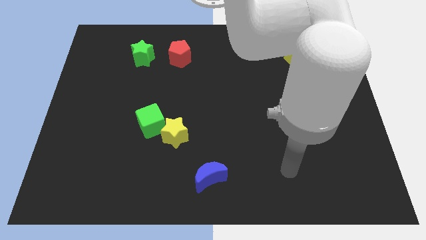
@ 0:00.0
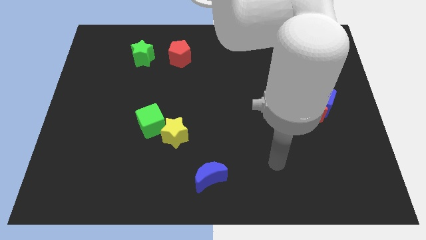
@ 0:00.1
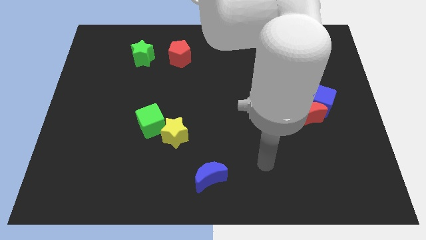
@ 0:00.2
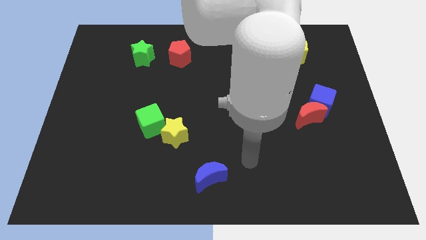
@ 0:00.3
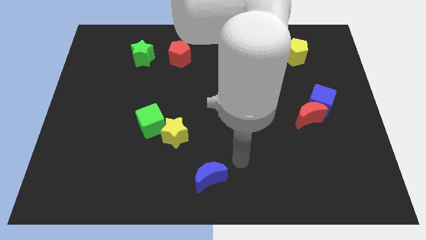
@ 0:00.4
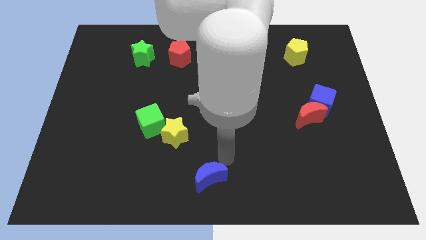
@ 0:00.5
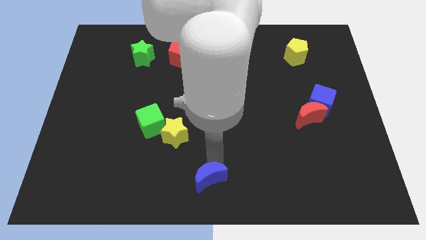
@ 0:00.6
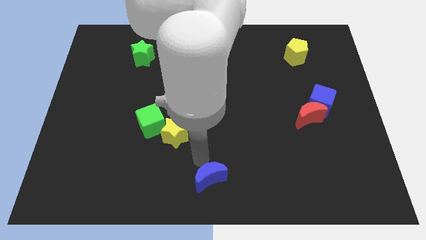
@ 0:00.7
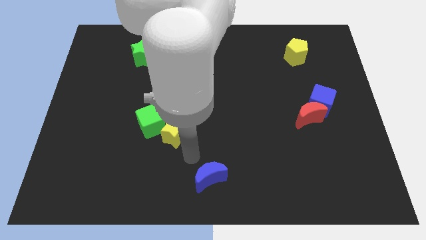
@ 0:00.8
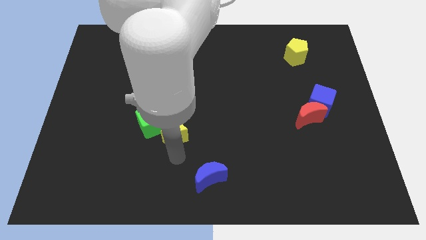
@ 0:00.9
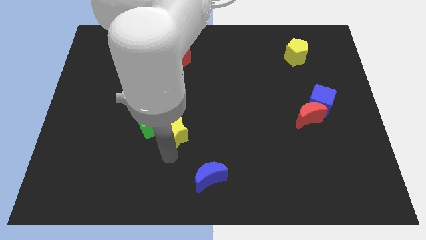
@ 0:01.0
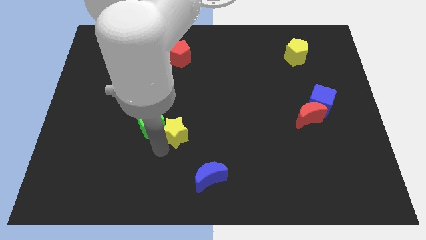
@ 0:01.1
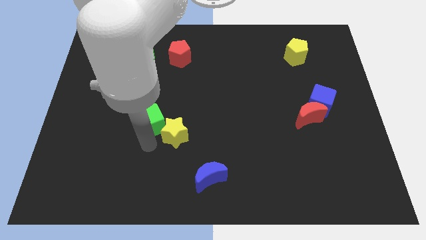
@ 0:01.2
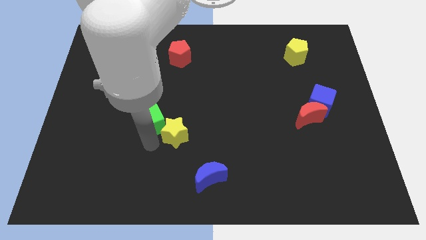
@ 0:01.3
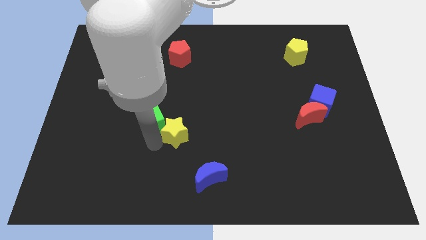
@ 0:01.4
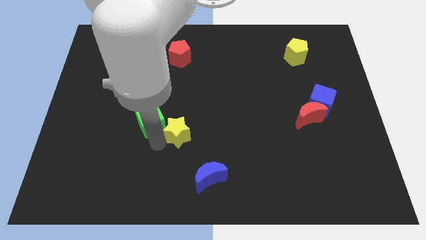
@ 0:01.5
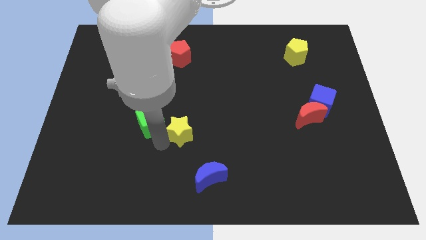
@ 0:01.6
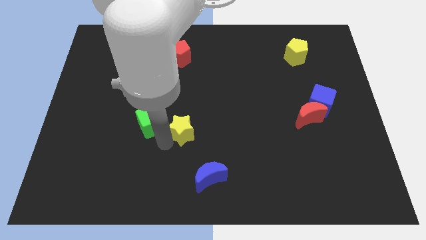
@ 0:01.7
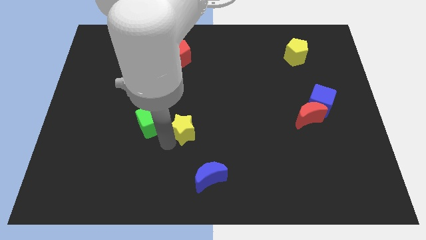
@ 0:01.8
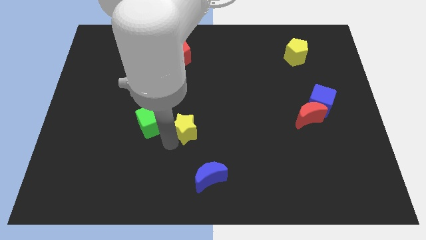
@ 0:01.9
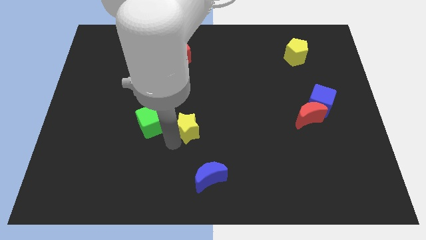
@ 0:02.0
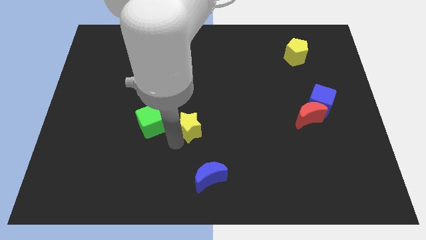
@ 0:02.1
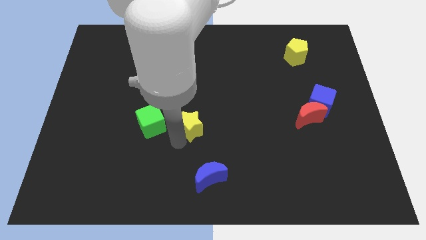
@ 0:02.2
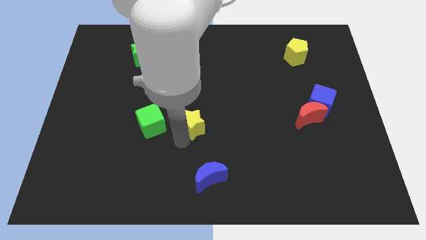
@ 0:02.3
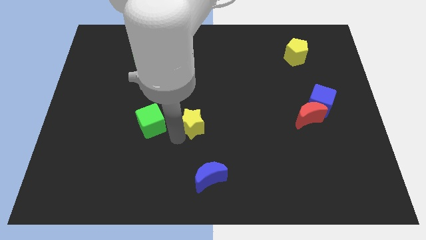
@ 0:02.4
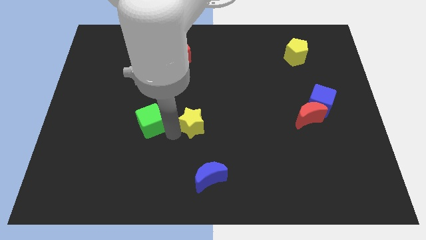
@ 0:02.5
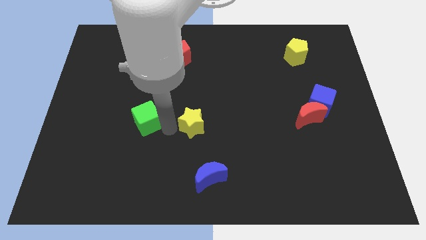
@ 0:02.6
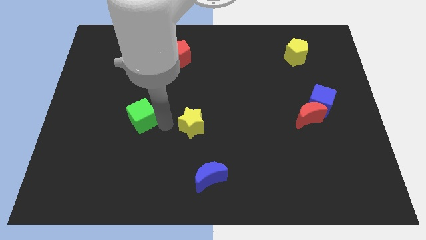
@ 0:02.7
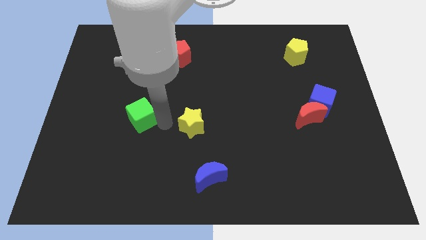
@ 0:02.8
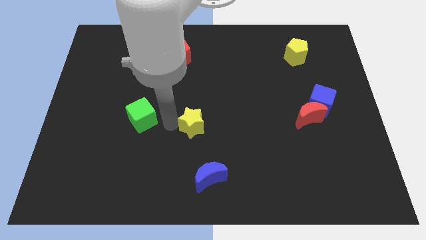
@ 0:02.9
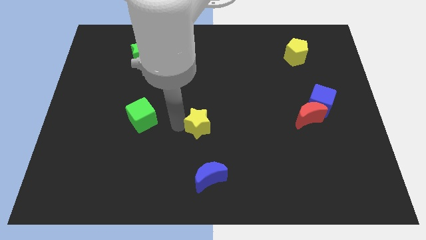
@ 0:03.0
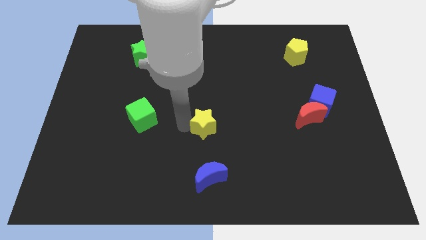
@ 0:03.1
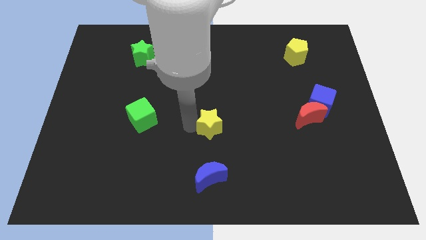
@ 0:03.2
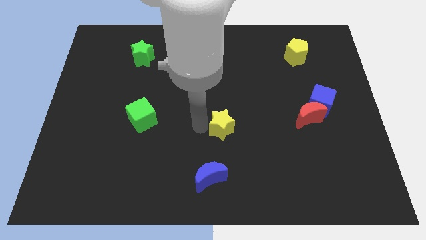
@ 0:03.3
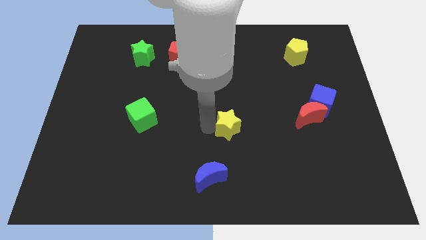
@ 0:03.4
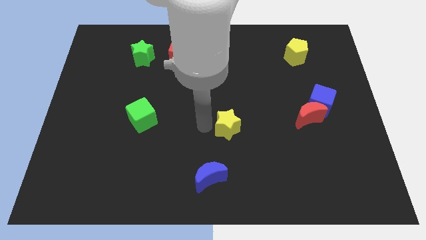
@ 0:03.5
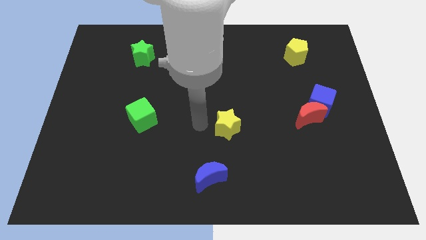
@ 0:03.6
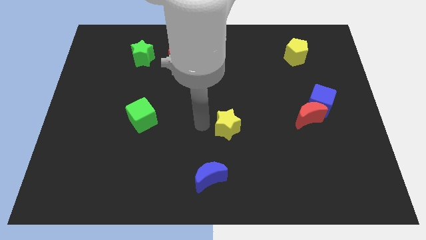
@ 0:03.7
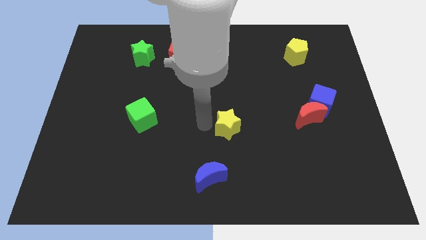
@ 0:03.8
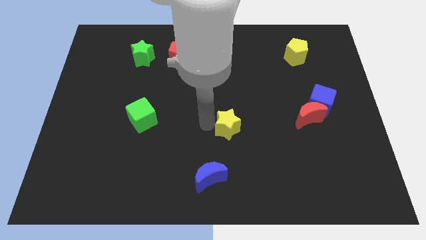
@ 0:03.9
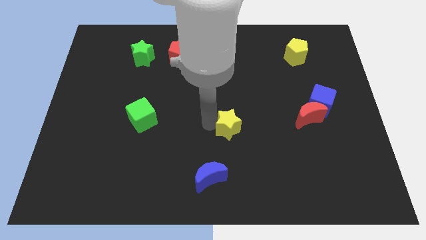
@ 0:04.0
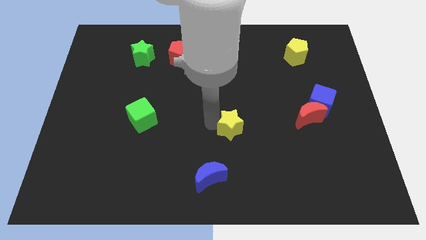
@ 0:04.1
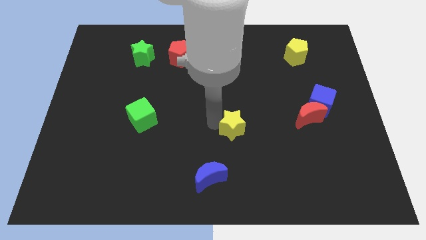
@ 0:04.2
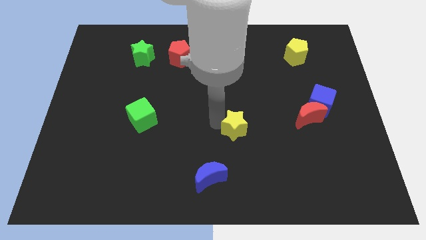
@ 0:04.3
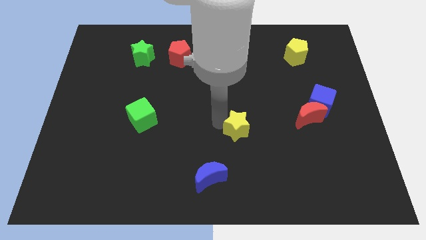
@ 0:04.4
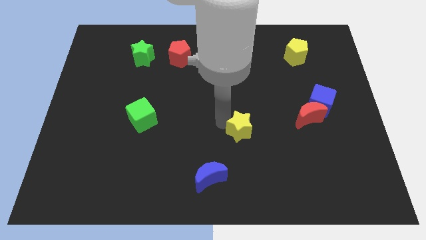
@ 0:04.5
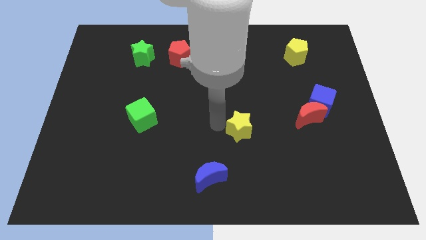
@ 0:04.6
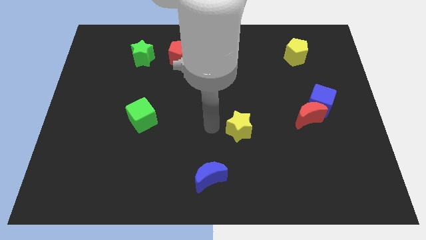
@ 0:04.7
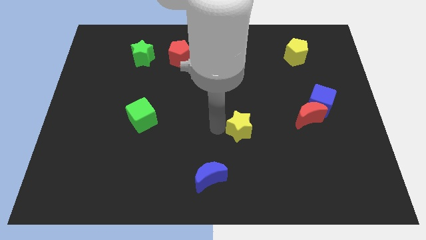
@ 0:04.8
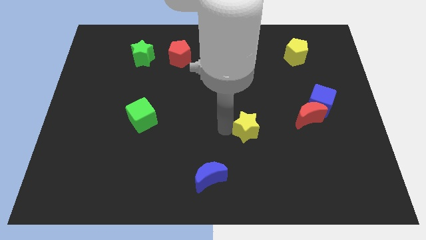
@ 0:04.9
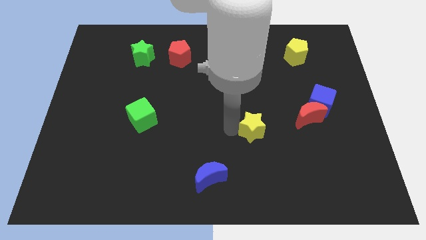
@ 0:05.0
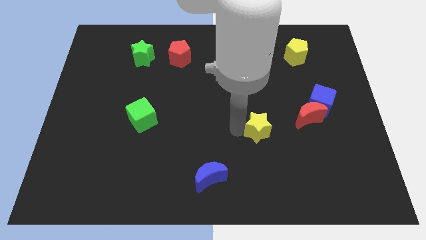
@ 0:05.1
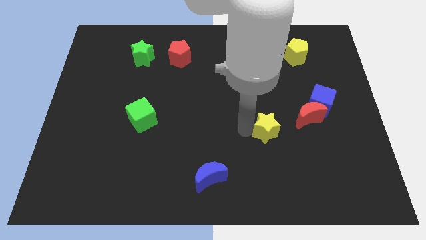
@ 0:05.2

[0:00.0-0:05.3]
move the yellow star to the bottom left of the red moon

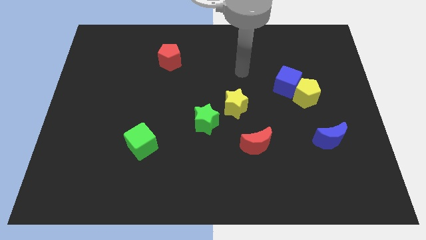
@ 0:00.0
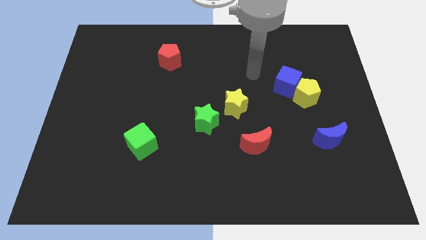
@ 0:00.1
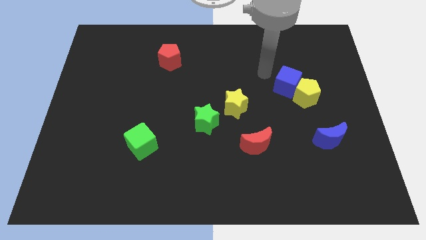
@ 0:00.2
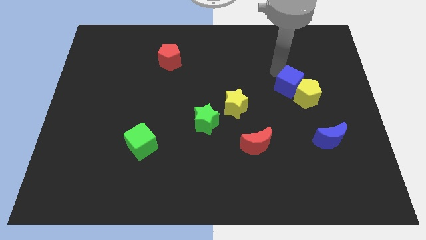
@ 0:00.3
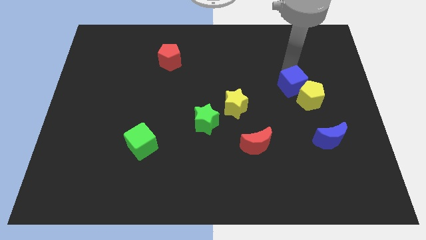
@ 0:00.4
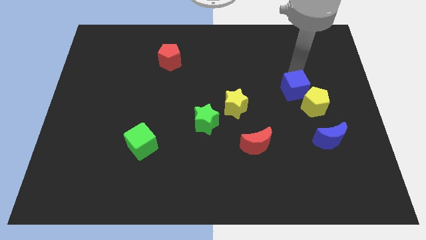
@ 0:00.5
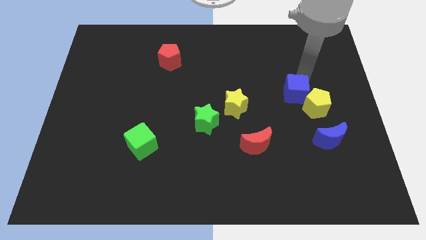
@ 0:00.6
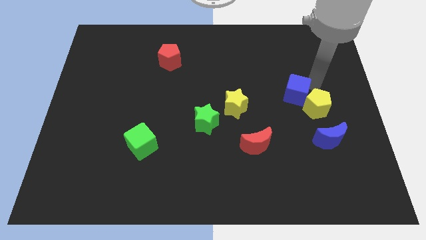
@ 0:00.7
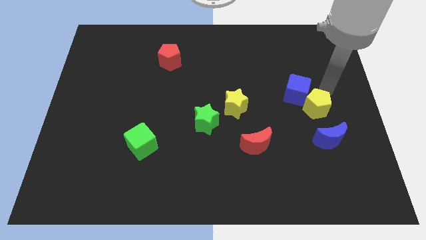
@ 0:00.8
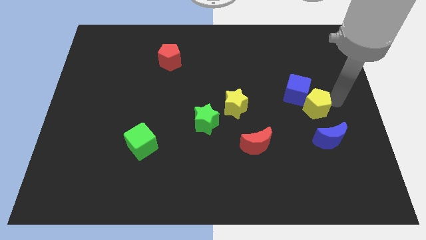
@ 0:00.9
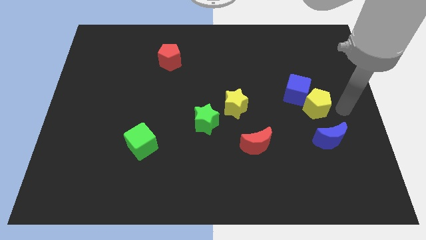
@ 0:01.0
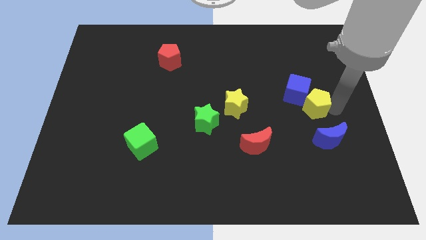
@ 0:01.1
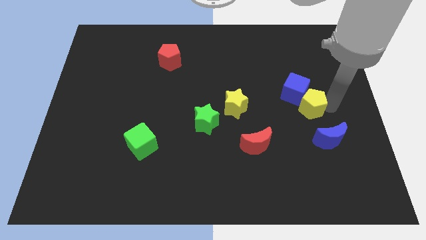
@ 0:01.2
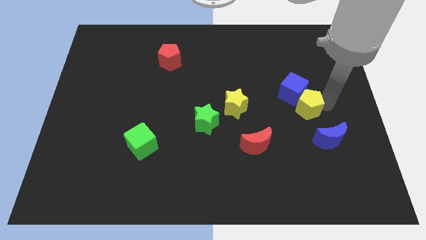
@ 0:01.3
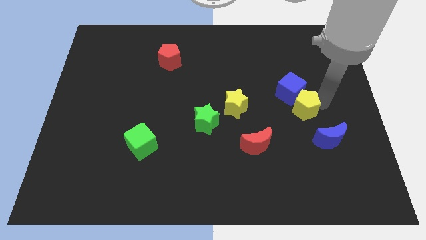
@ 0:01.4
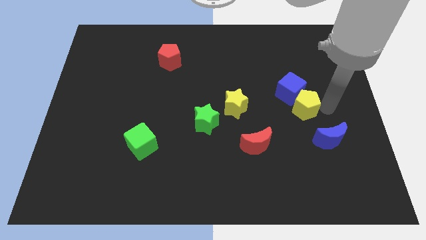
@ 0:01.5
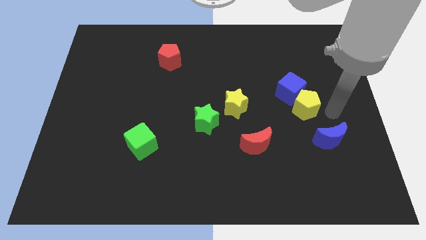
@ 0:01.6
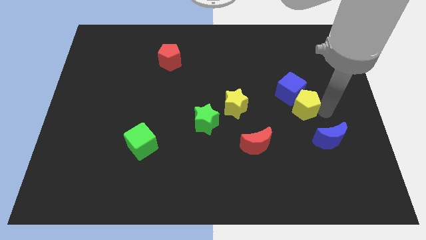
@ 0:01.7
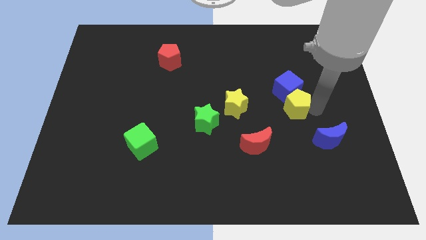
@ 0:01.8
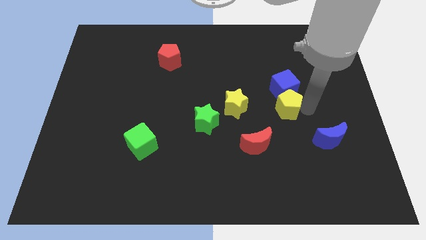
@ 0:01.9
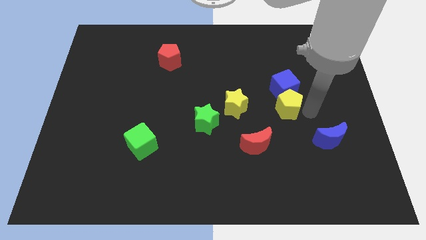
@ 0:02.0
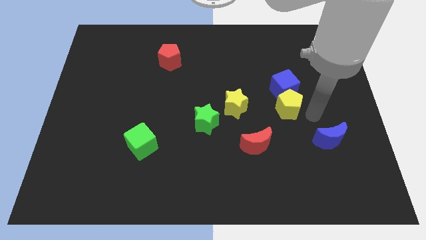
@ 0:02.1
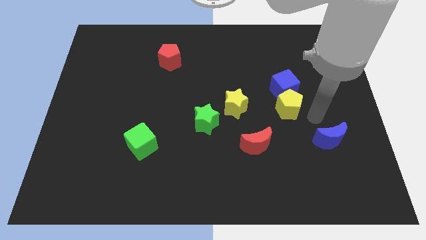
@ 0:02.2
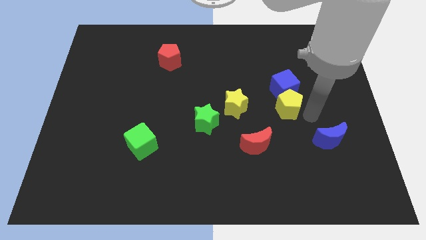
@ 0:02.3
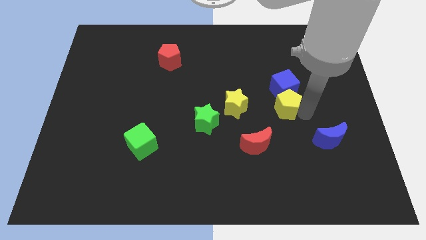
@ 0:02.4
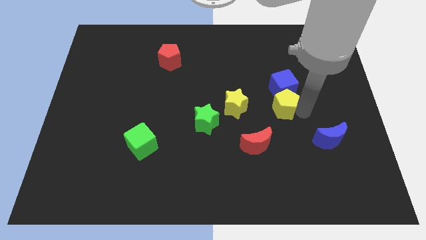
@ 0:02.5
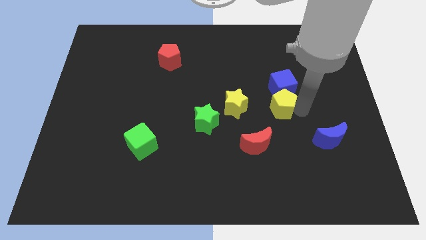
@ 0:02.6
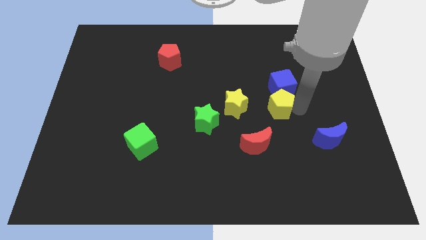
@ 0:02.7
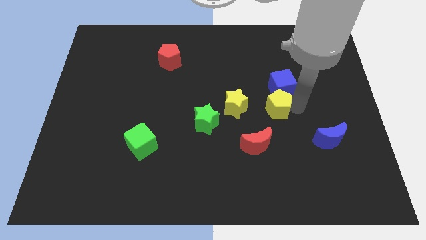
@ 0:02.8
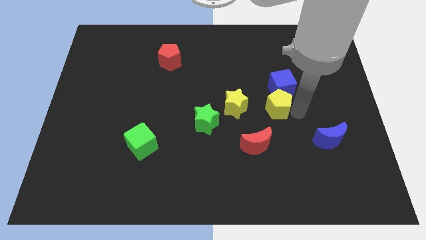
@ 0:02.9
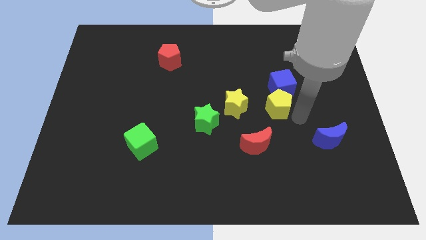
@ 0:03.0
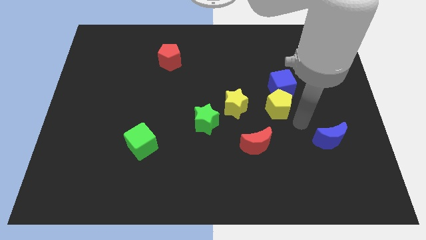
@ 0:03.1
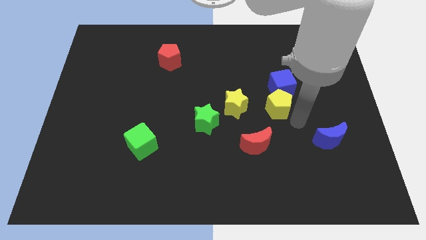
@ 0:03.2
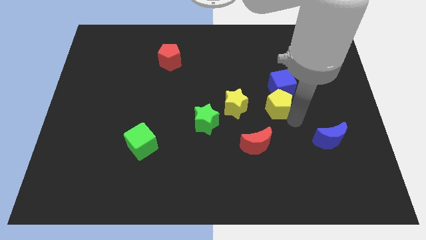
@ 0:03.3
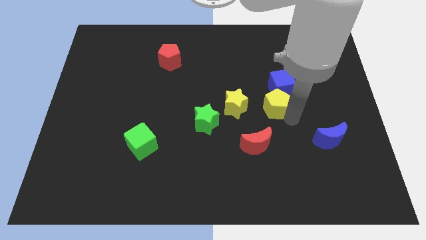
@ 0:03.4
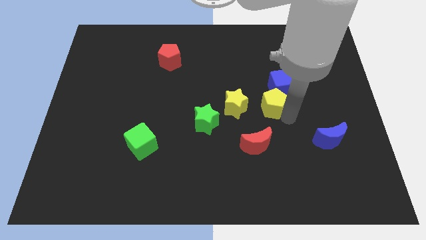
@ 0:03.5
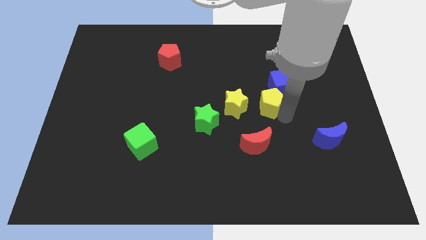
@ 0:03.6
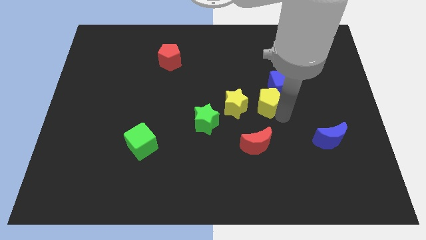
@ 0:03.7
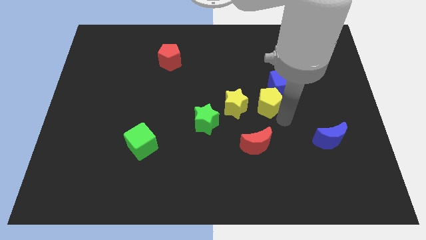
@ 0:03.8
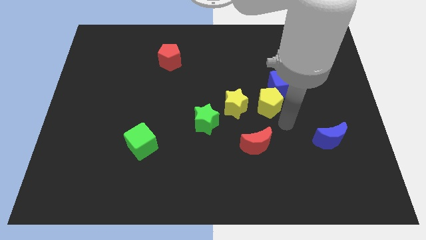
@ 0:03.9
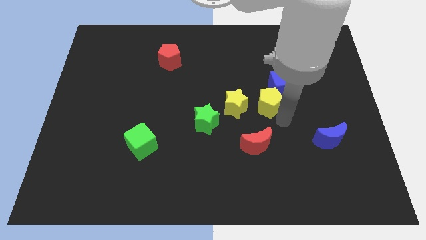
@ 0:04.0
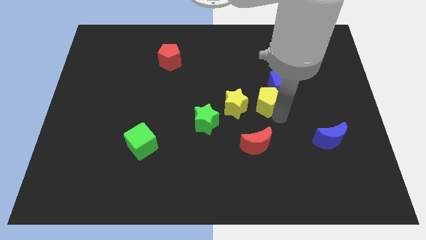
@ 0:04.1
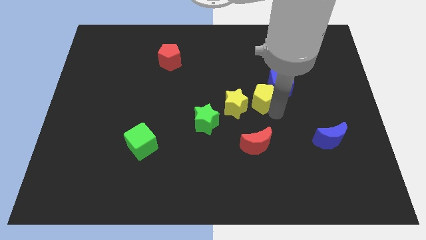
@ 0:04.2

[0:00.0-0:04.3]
move the yellow pentagon to the left side of the blue cube
